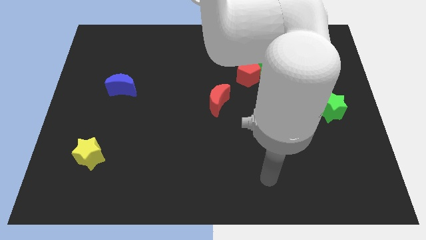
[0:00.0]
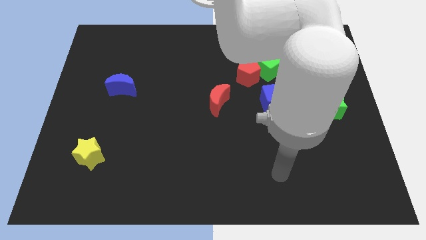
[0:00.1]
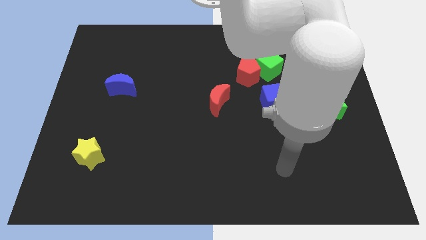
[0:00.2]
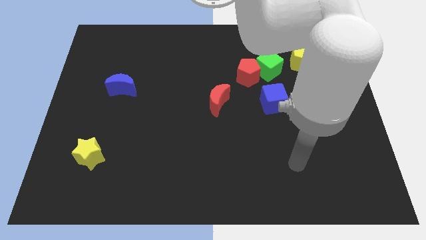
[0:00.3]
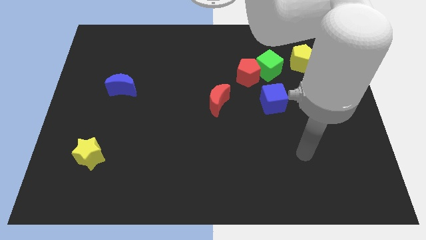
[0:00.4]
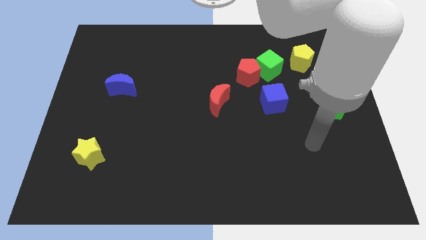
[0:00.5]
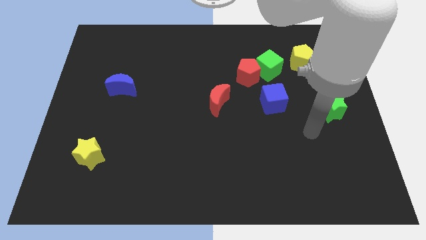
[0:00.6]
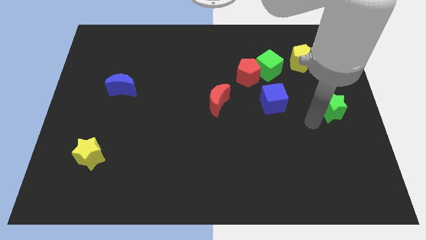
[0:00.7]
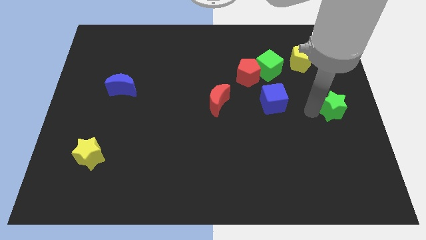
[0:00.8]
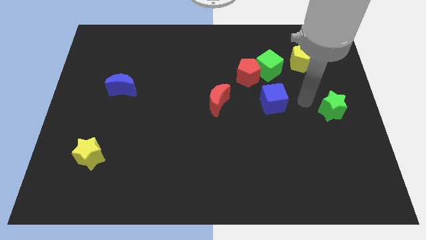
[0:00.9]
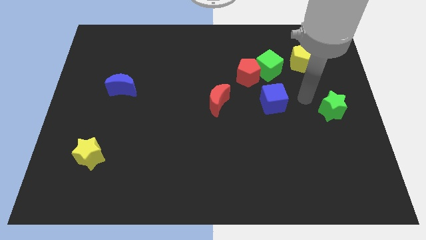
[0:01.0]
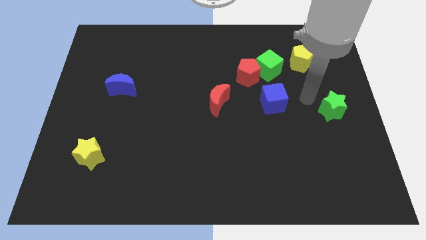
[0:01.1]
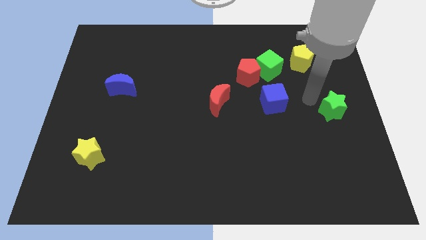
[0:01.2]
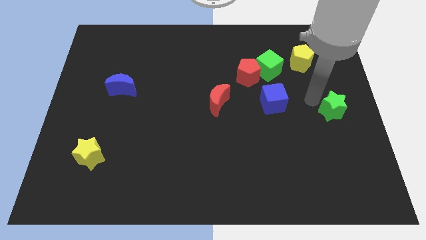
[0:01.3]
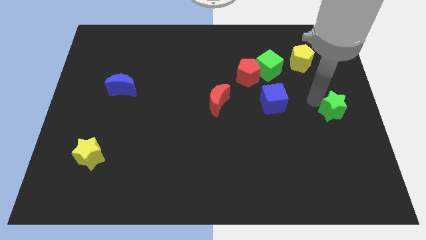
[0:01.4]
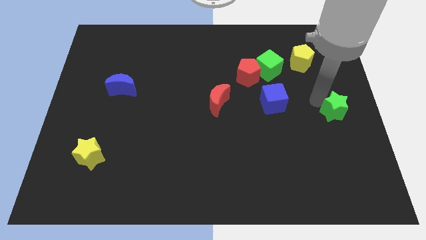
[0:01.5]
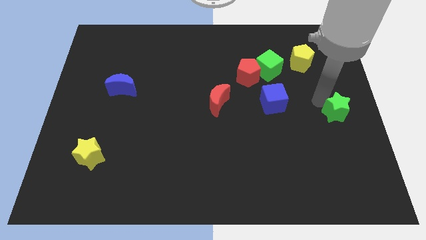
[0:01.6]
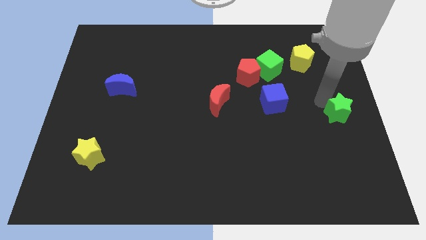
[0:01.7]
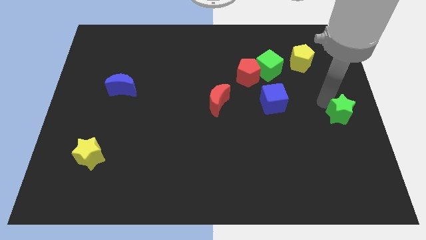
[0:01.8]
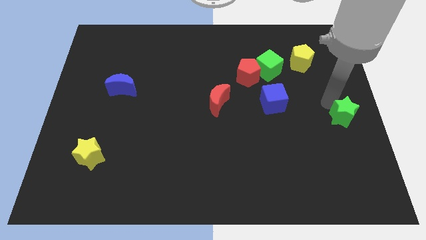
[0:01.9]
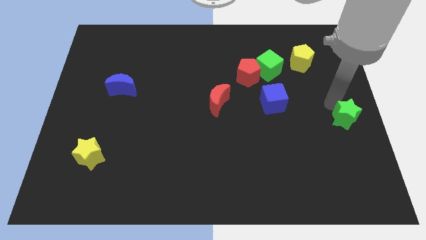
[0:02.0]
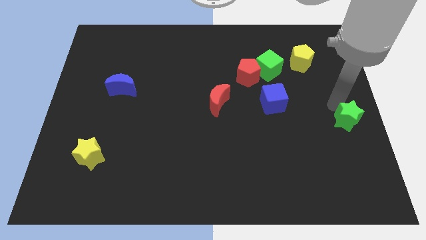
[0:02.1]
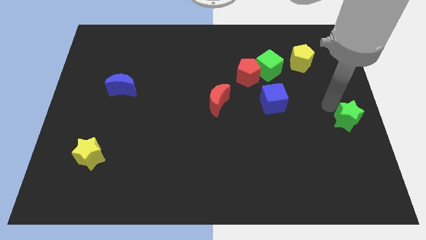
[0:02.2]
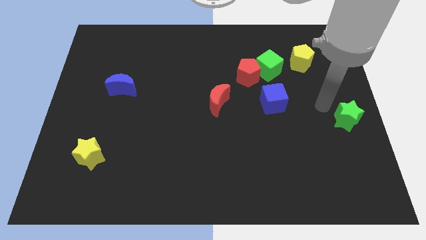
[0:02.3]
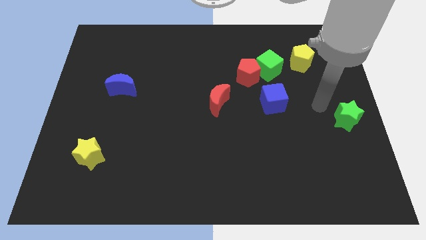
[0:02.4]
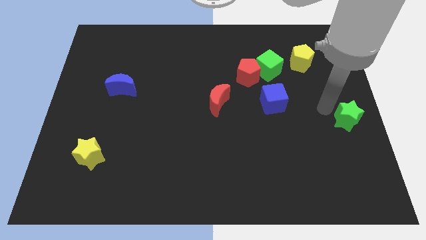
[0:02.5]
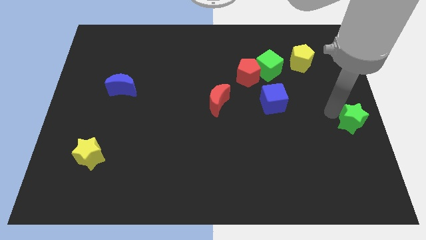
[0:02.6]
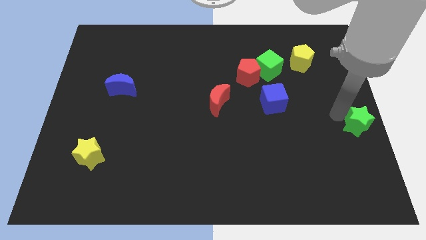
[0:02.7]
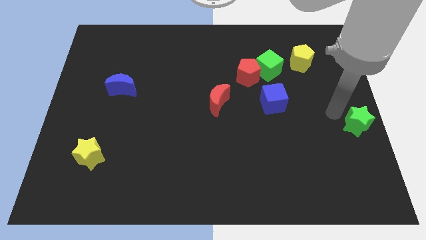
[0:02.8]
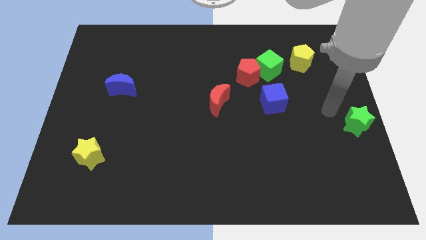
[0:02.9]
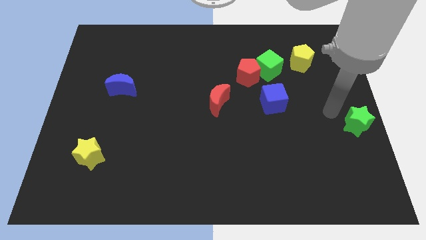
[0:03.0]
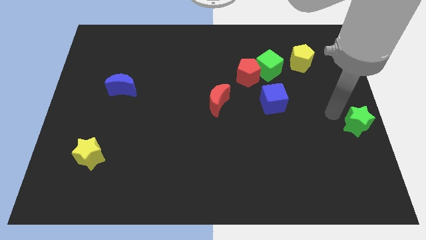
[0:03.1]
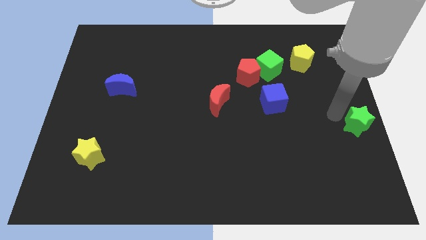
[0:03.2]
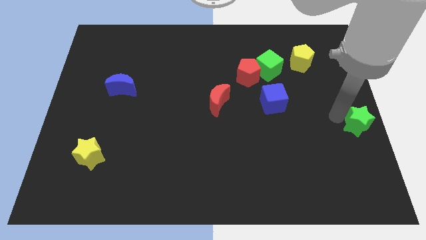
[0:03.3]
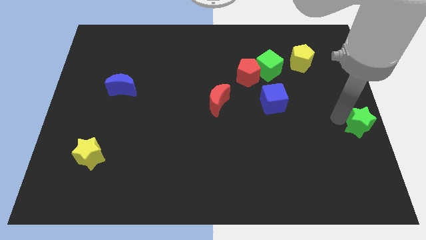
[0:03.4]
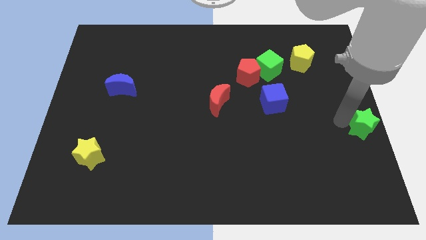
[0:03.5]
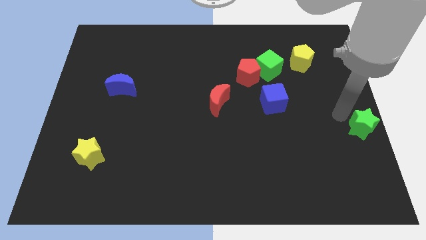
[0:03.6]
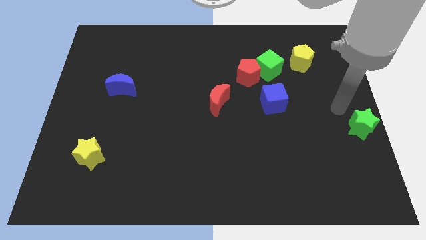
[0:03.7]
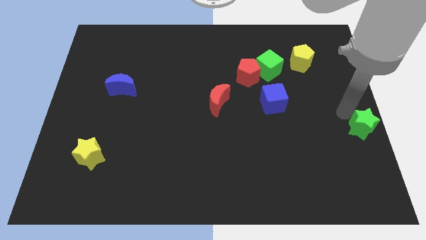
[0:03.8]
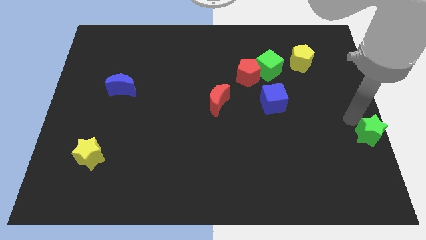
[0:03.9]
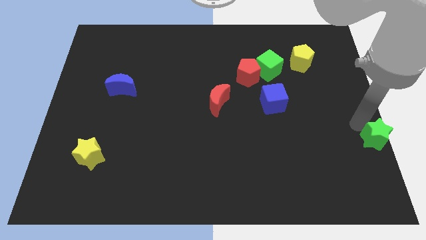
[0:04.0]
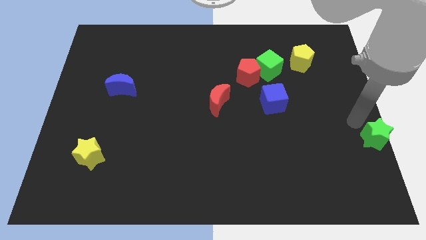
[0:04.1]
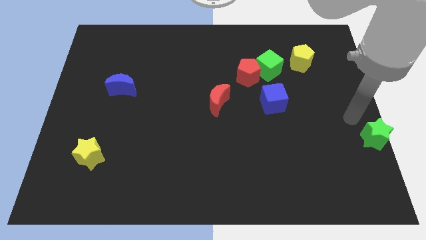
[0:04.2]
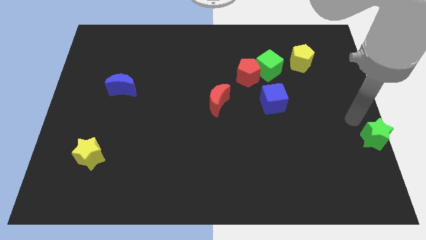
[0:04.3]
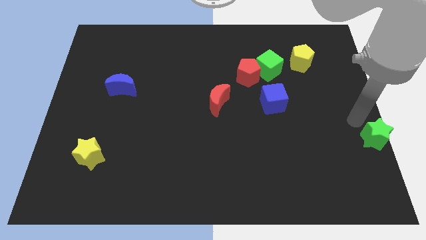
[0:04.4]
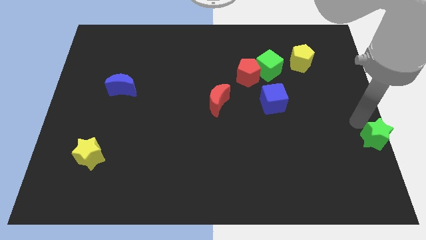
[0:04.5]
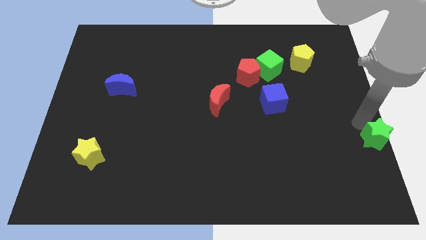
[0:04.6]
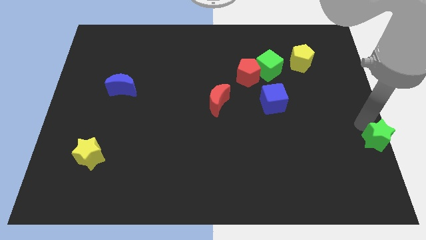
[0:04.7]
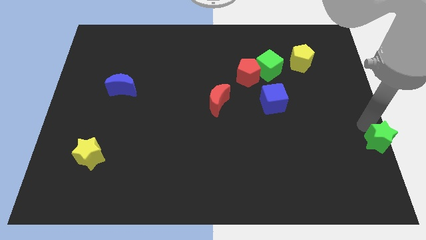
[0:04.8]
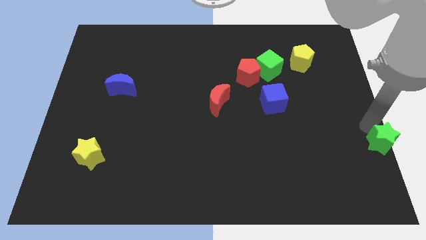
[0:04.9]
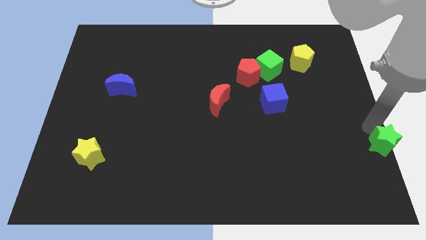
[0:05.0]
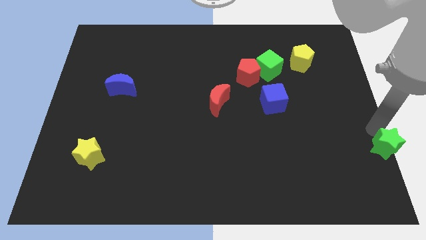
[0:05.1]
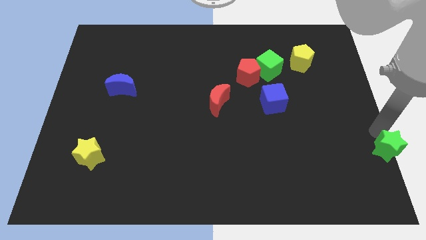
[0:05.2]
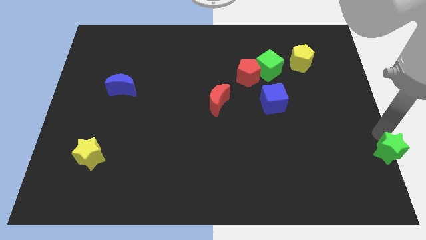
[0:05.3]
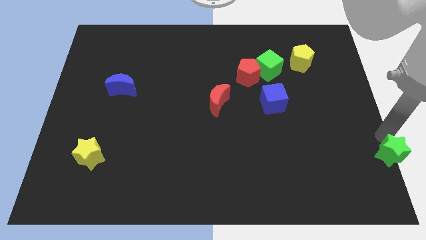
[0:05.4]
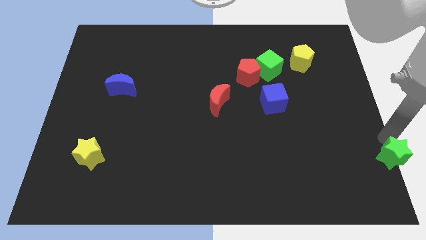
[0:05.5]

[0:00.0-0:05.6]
move the green star to the bottom right

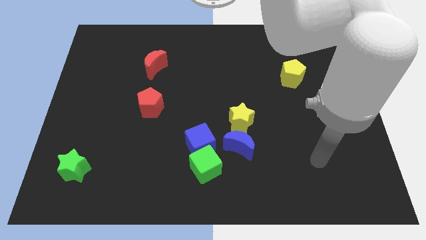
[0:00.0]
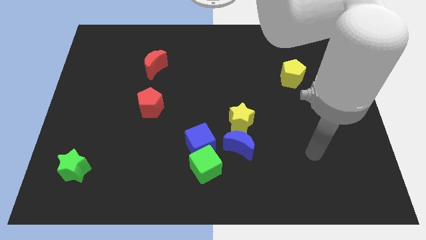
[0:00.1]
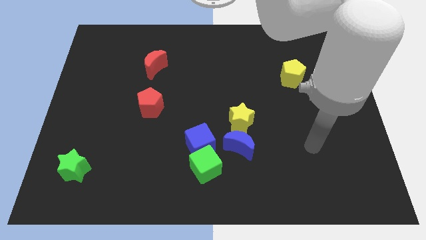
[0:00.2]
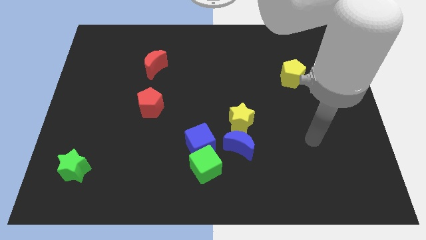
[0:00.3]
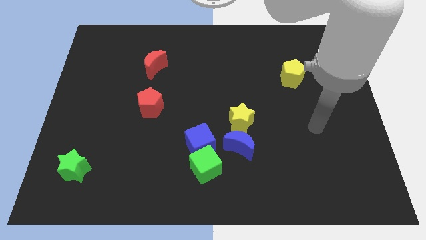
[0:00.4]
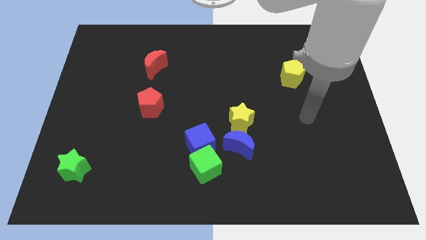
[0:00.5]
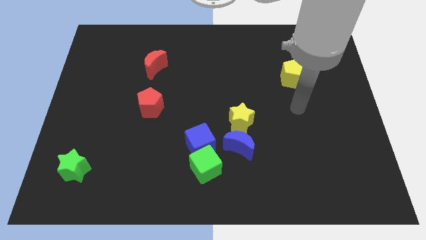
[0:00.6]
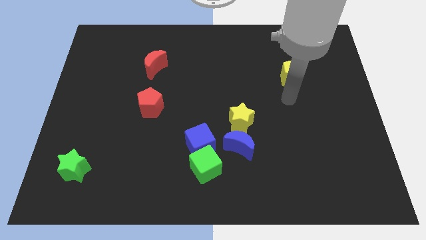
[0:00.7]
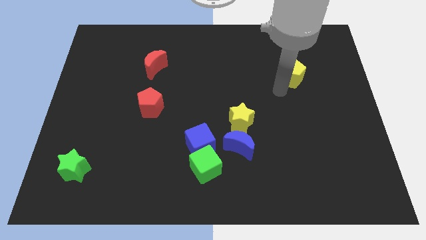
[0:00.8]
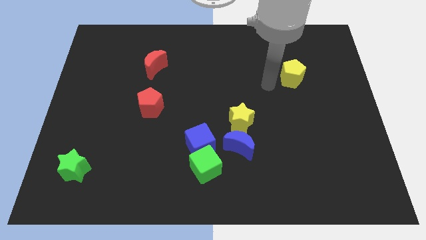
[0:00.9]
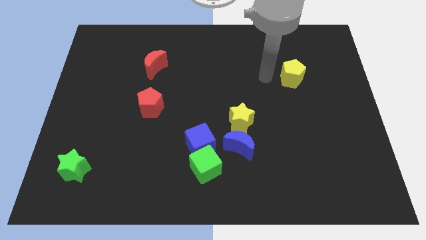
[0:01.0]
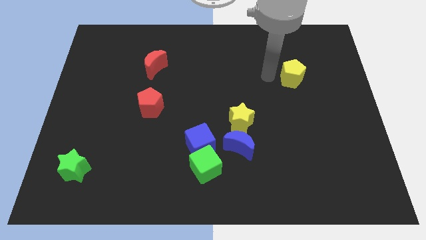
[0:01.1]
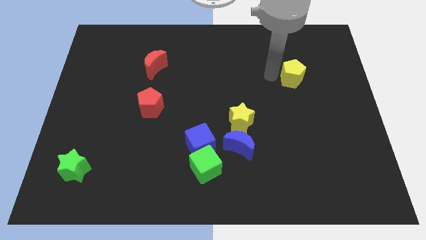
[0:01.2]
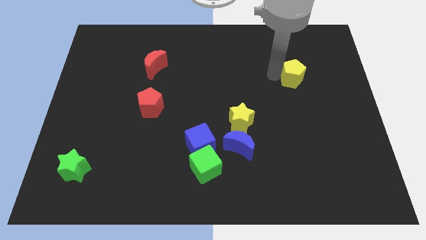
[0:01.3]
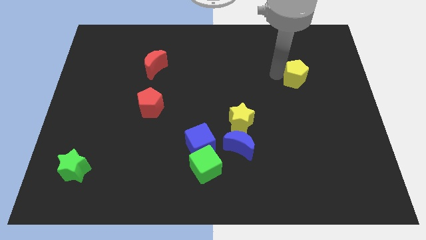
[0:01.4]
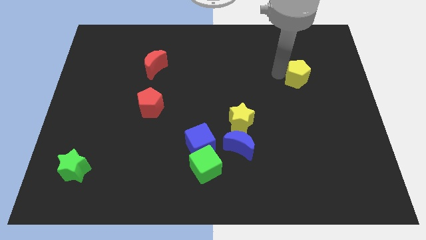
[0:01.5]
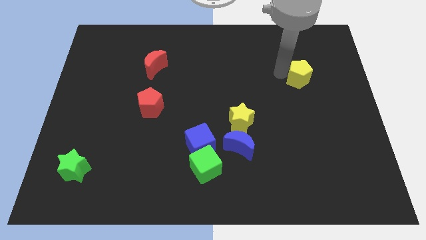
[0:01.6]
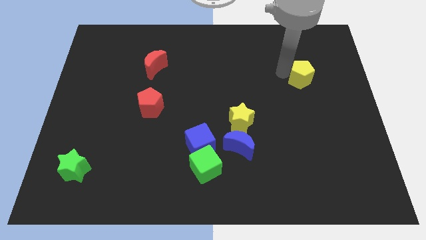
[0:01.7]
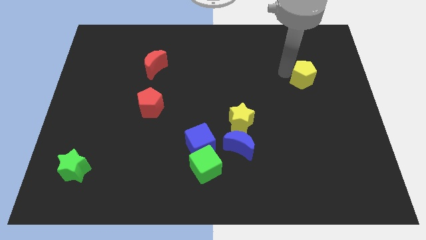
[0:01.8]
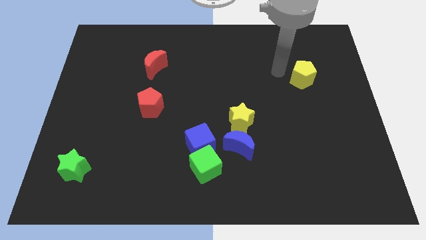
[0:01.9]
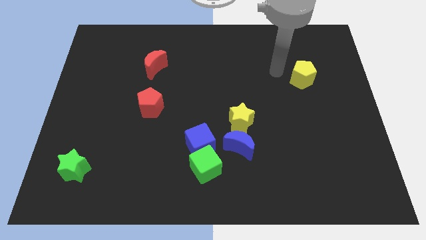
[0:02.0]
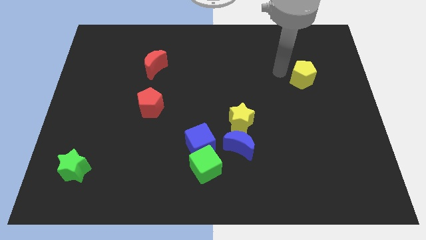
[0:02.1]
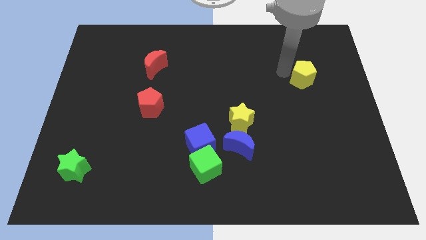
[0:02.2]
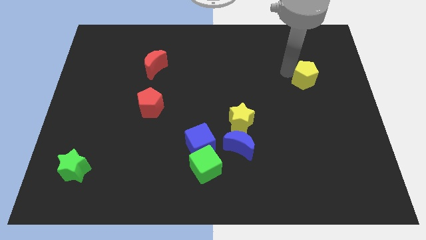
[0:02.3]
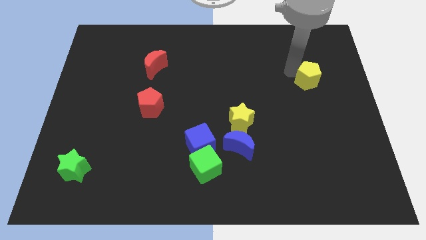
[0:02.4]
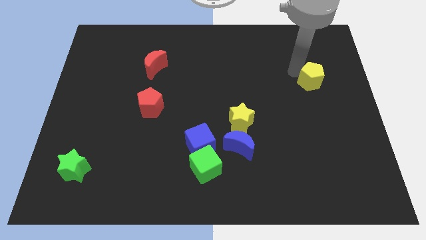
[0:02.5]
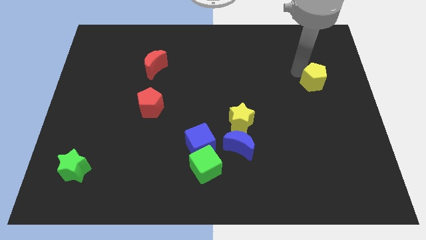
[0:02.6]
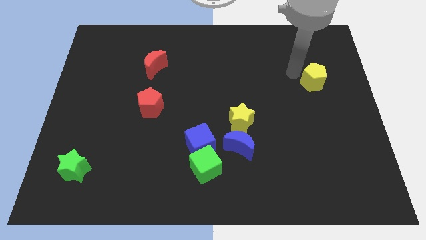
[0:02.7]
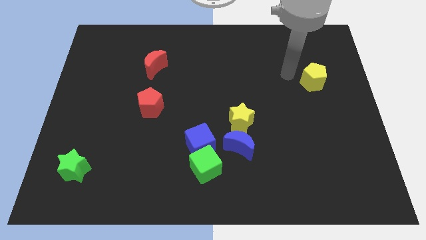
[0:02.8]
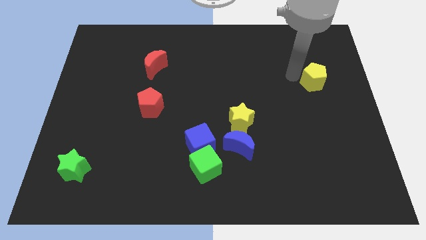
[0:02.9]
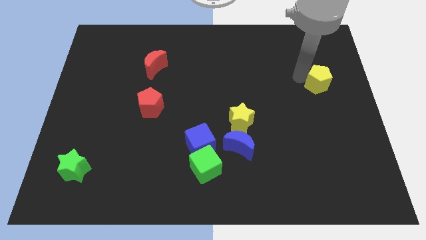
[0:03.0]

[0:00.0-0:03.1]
push the yellow pentagon to the right side of the board
